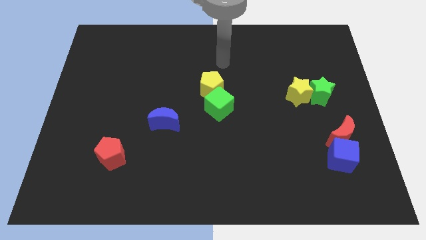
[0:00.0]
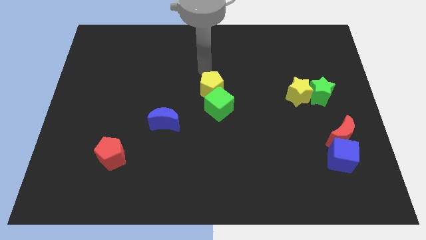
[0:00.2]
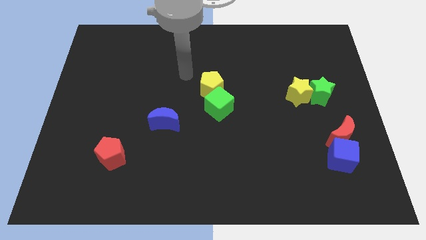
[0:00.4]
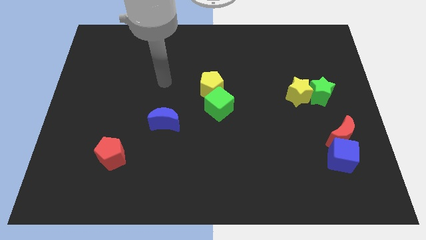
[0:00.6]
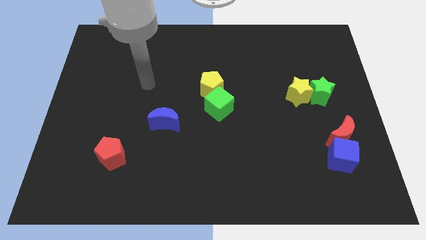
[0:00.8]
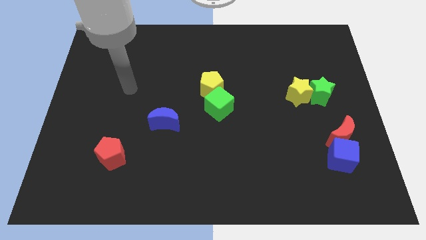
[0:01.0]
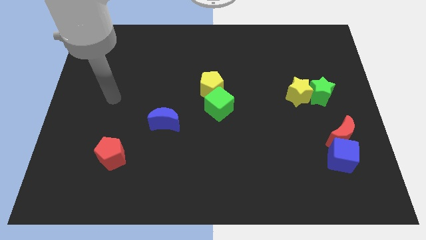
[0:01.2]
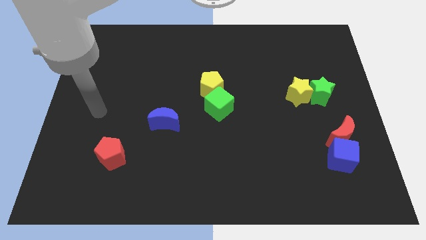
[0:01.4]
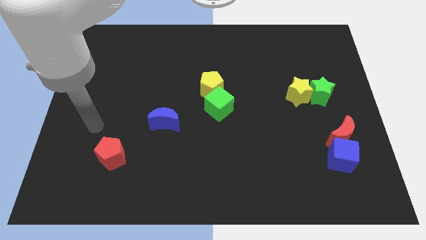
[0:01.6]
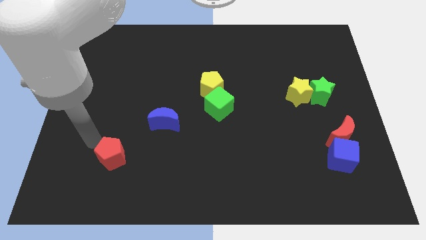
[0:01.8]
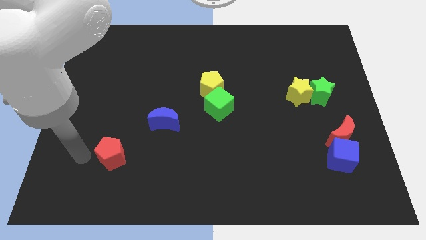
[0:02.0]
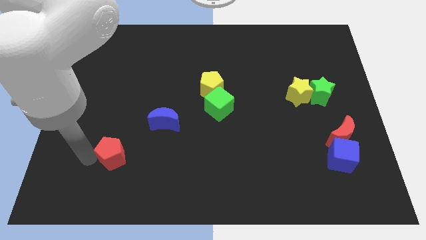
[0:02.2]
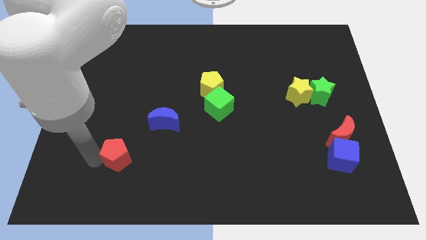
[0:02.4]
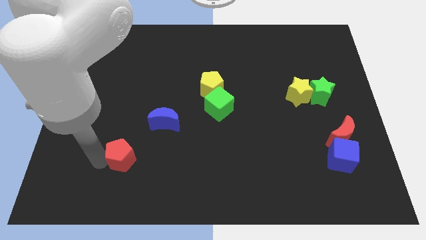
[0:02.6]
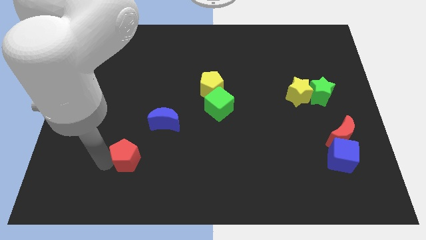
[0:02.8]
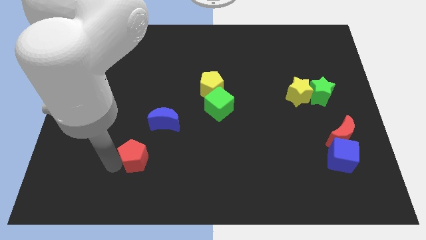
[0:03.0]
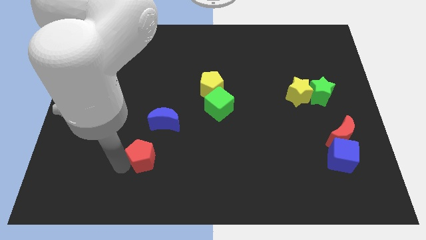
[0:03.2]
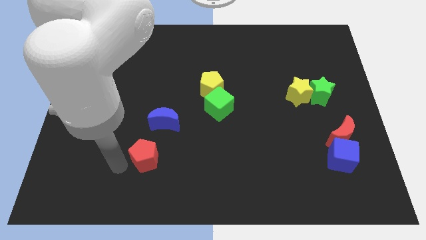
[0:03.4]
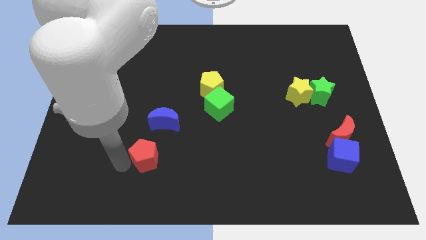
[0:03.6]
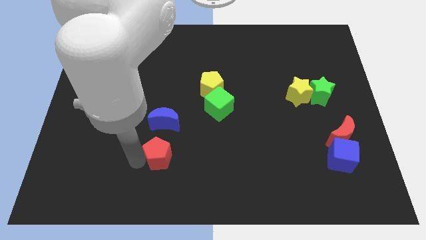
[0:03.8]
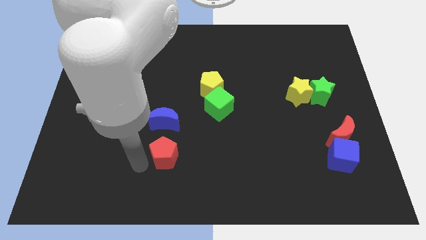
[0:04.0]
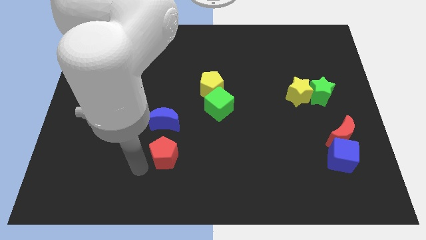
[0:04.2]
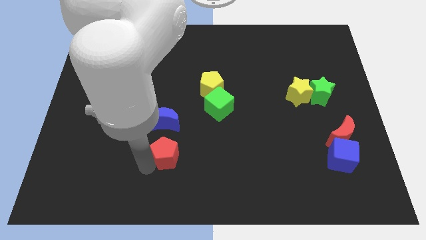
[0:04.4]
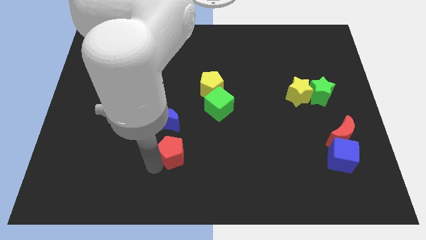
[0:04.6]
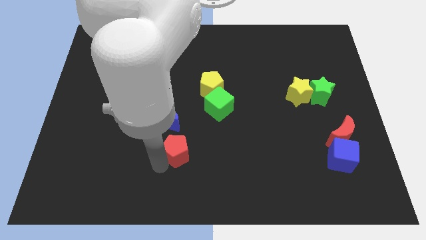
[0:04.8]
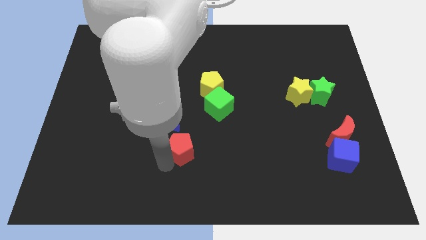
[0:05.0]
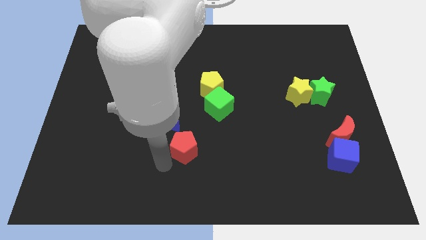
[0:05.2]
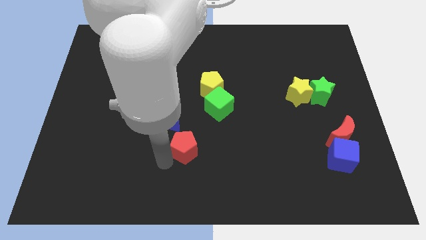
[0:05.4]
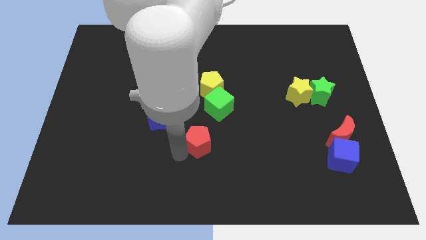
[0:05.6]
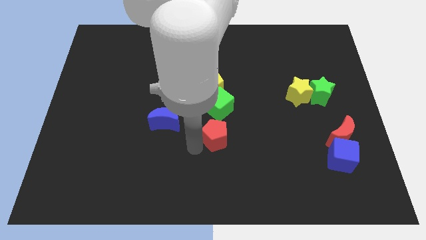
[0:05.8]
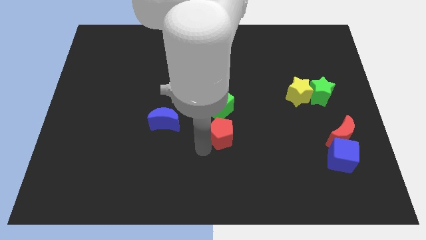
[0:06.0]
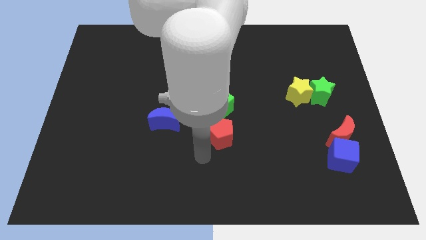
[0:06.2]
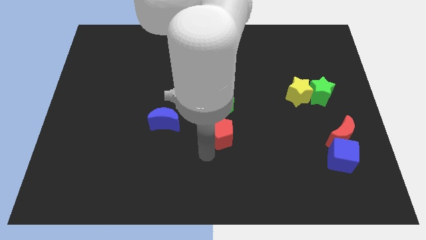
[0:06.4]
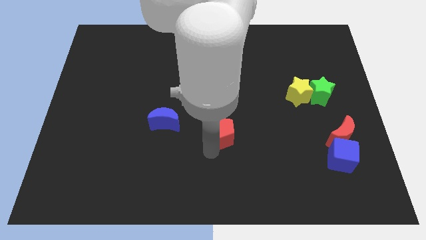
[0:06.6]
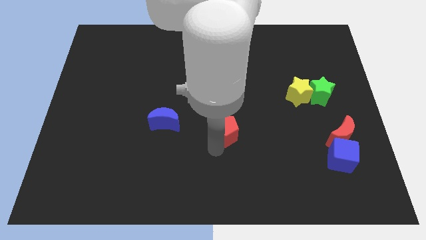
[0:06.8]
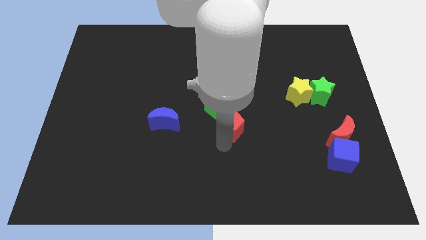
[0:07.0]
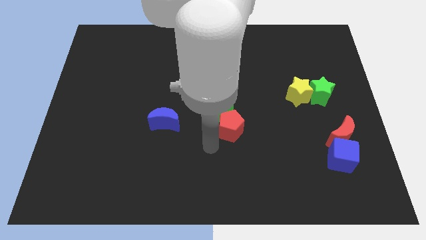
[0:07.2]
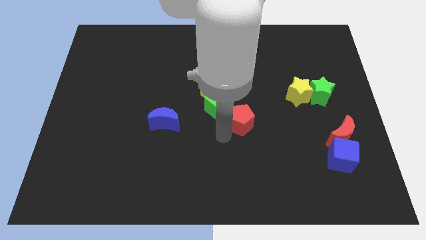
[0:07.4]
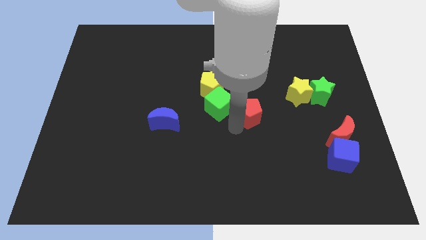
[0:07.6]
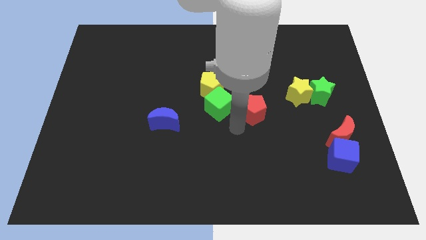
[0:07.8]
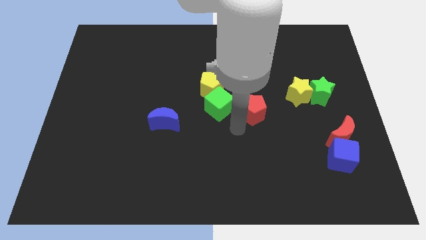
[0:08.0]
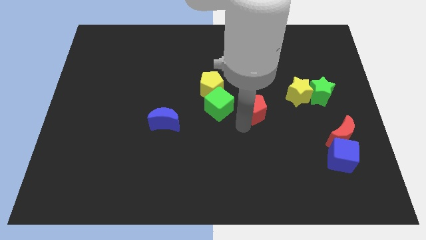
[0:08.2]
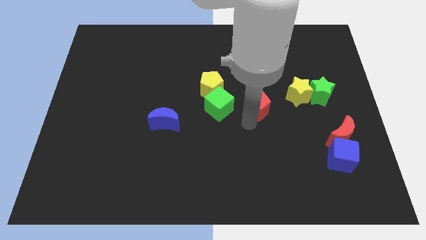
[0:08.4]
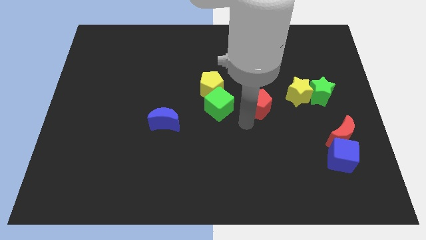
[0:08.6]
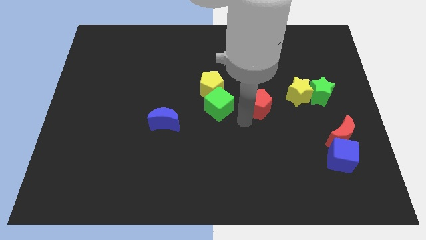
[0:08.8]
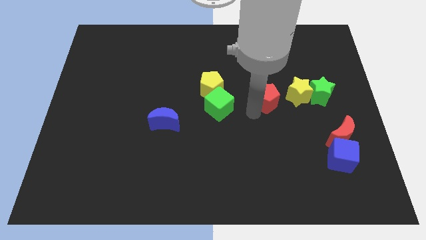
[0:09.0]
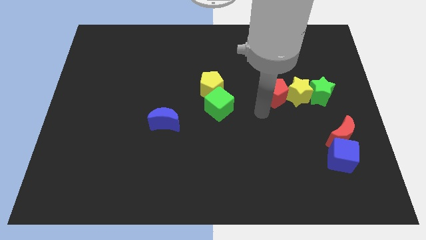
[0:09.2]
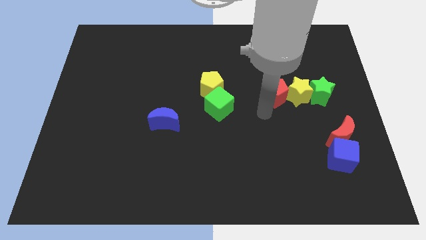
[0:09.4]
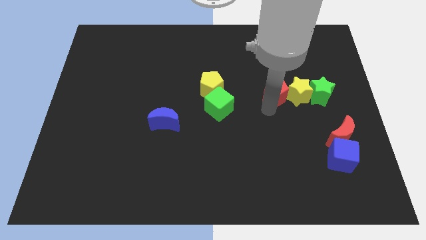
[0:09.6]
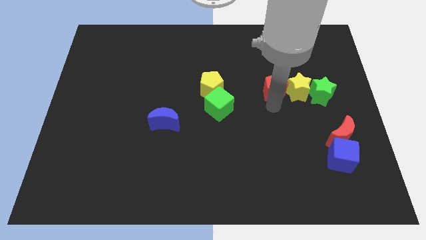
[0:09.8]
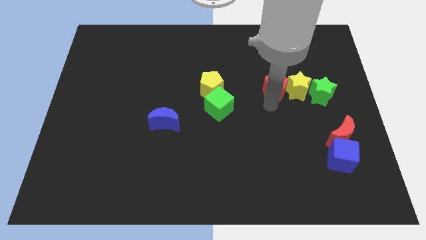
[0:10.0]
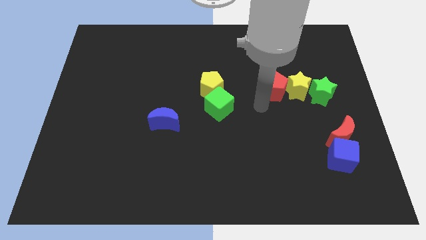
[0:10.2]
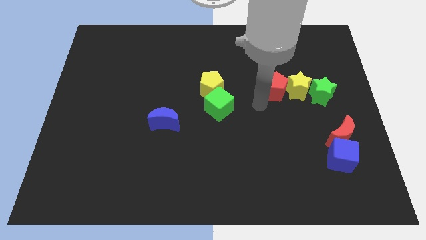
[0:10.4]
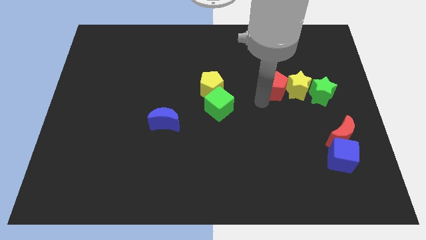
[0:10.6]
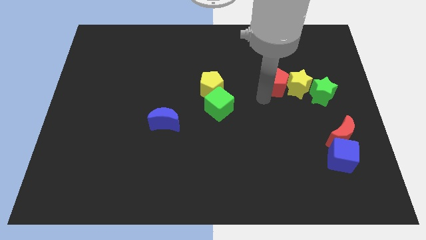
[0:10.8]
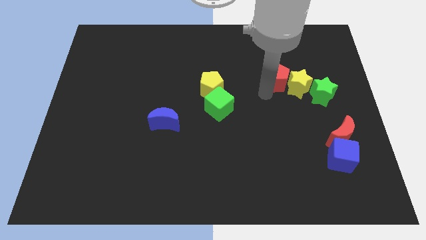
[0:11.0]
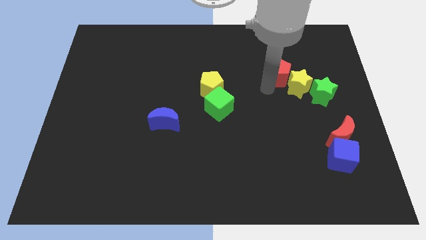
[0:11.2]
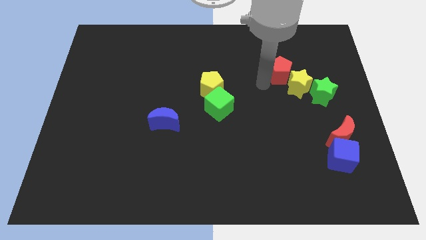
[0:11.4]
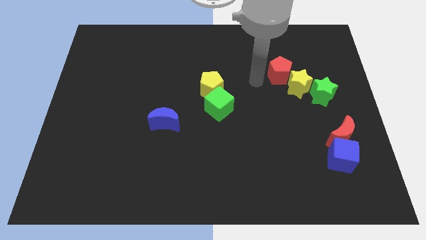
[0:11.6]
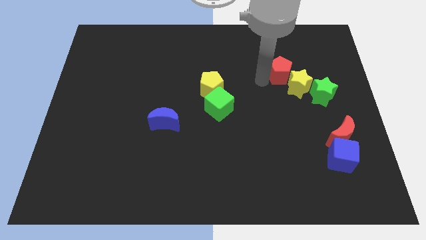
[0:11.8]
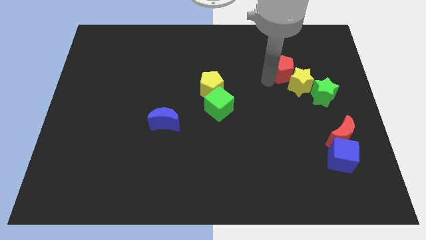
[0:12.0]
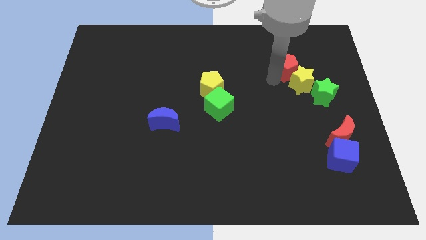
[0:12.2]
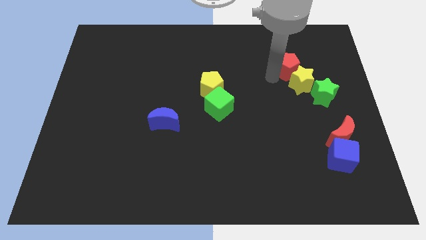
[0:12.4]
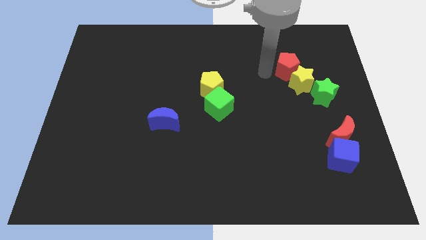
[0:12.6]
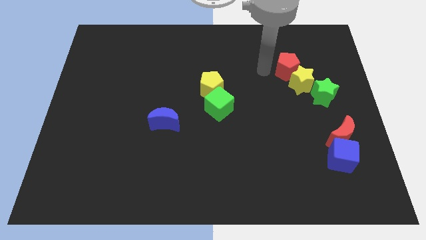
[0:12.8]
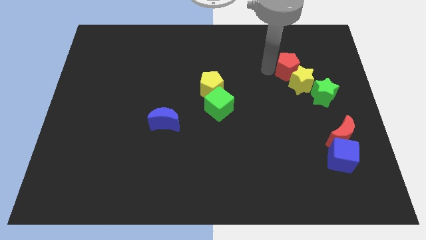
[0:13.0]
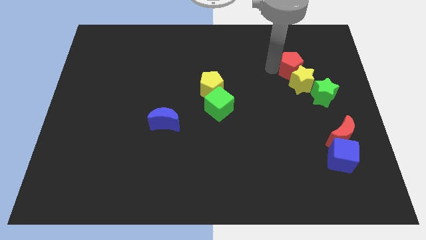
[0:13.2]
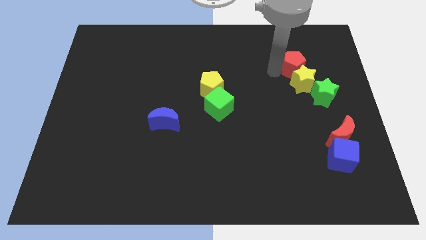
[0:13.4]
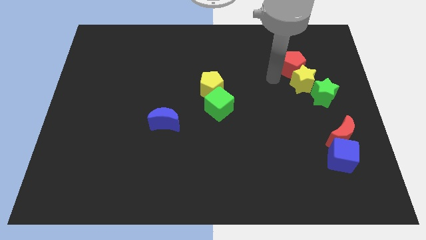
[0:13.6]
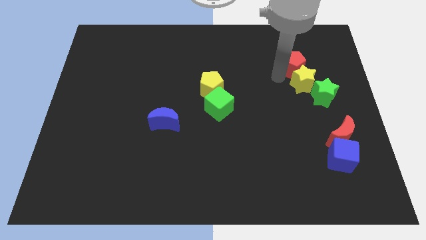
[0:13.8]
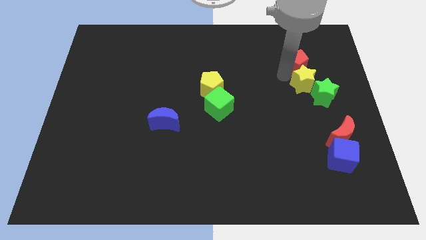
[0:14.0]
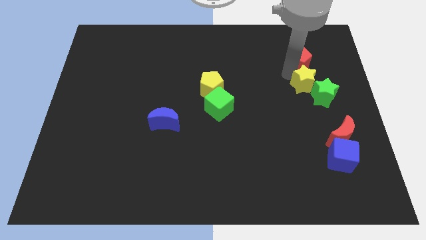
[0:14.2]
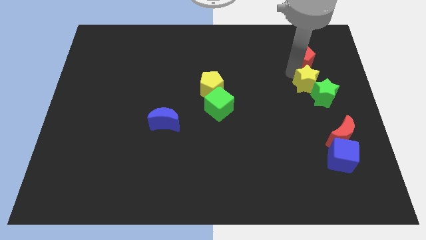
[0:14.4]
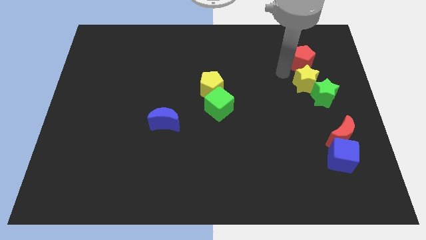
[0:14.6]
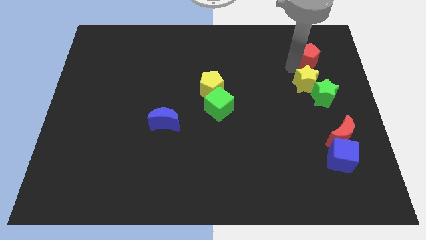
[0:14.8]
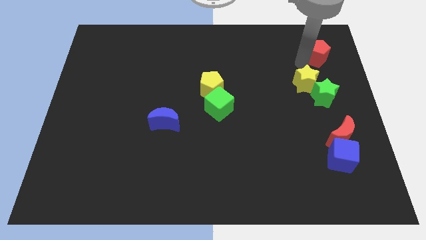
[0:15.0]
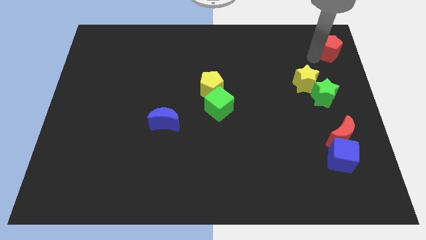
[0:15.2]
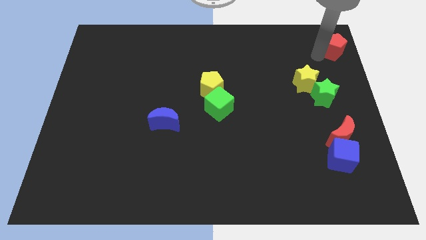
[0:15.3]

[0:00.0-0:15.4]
slide the red pentagon to the top right corner
